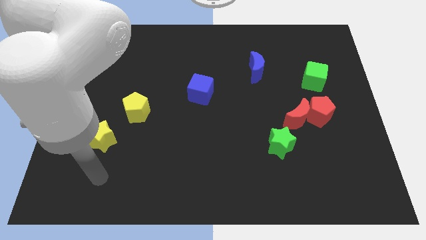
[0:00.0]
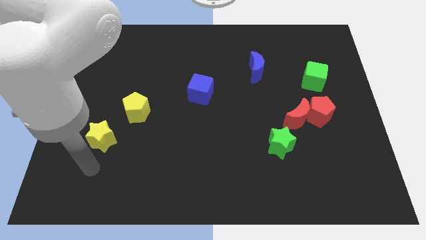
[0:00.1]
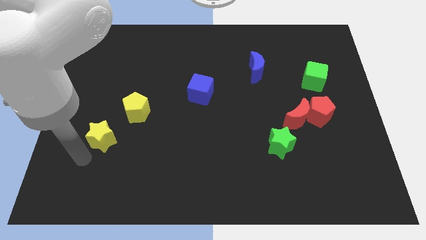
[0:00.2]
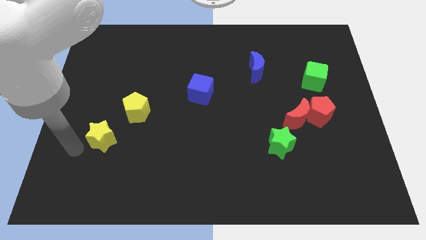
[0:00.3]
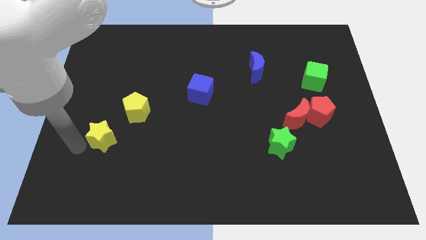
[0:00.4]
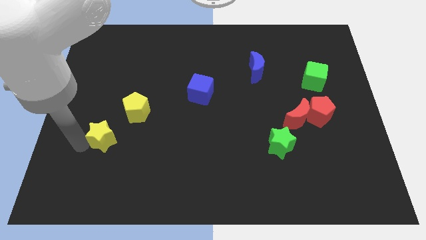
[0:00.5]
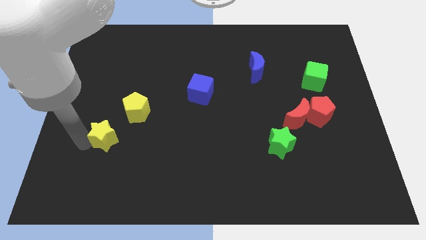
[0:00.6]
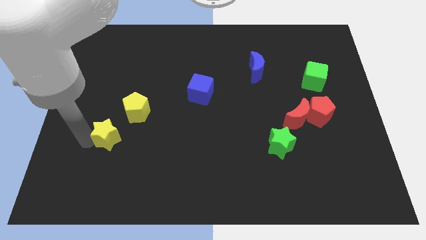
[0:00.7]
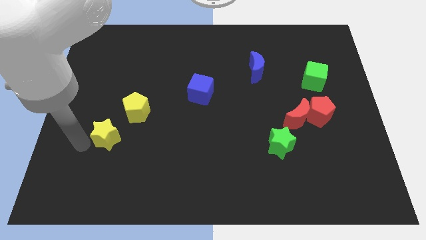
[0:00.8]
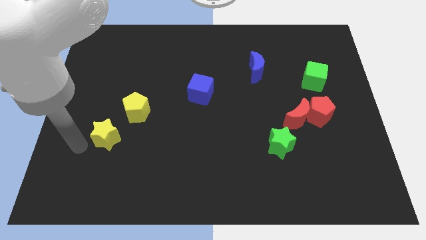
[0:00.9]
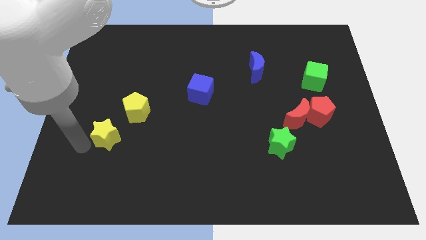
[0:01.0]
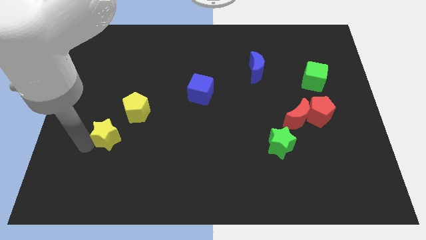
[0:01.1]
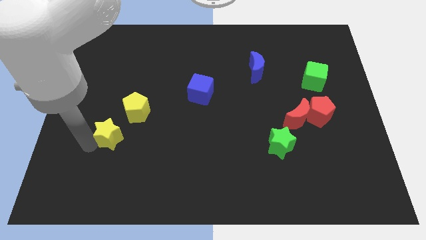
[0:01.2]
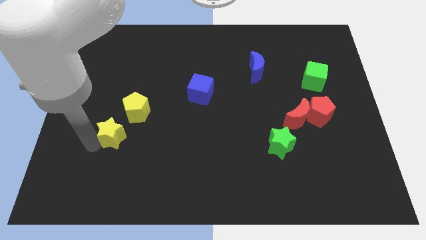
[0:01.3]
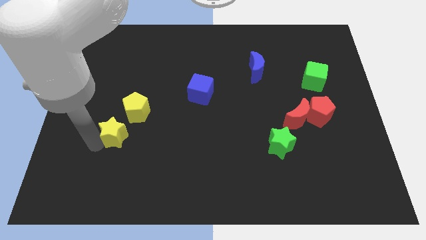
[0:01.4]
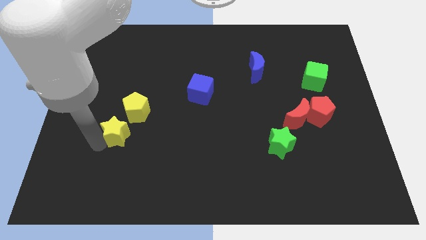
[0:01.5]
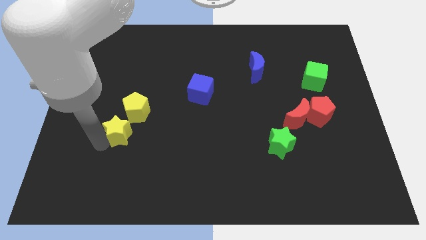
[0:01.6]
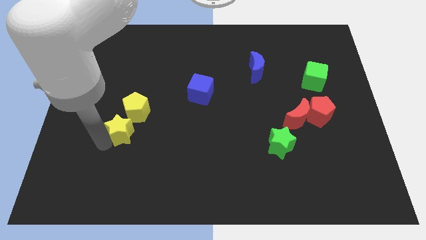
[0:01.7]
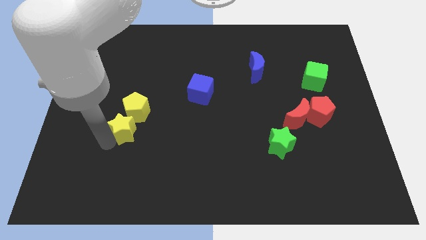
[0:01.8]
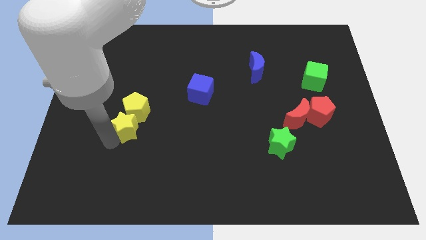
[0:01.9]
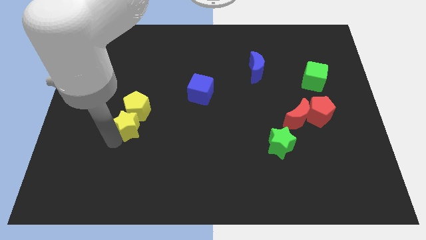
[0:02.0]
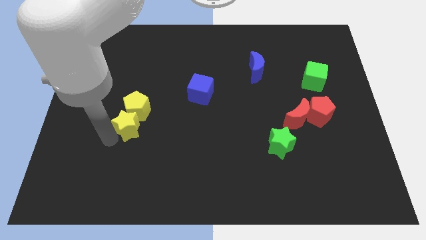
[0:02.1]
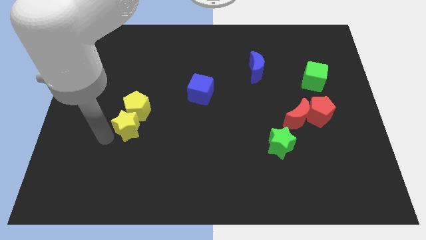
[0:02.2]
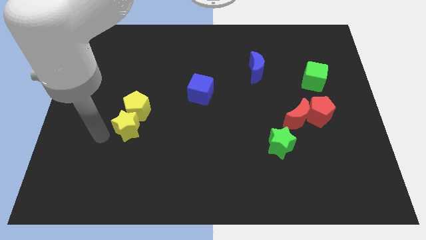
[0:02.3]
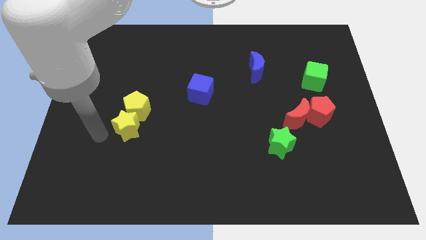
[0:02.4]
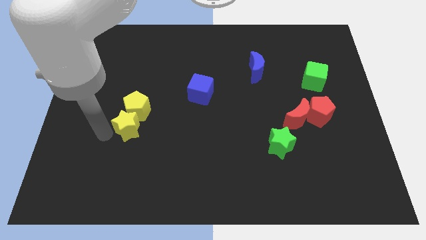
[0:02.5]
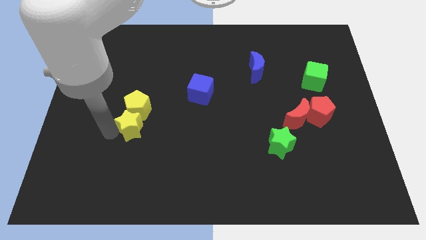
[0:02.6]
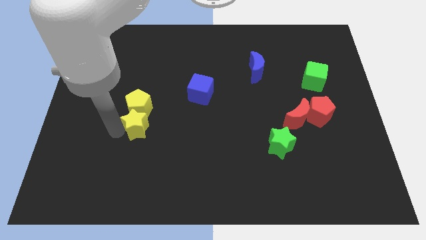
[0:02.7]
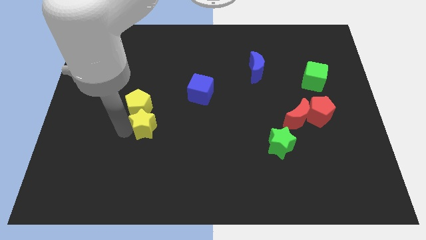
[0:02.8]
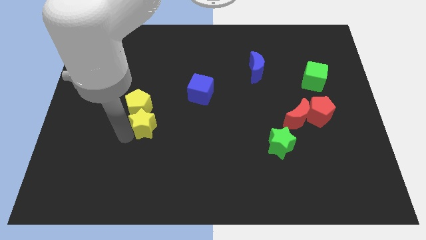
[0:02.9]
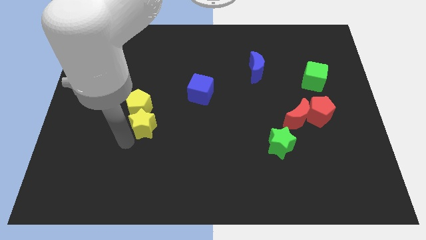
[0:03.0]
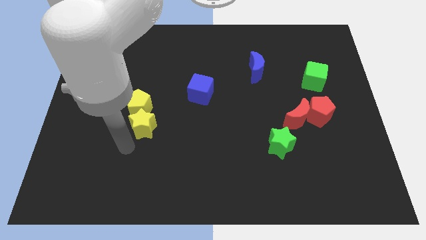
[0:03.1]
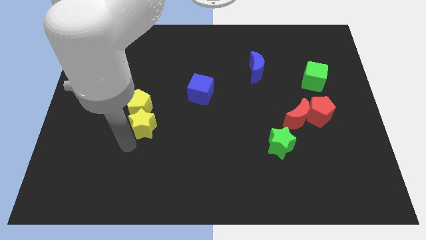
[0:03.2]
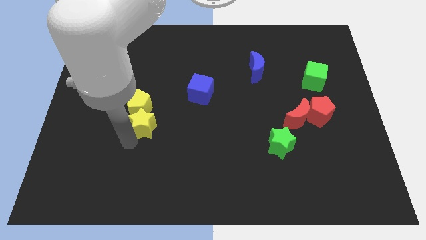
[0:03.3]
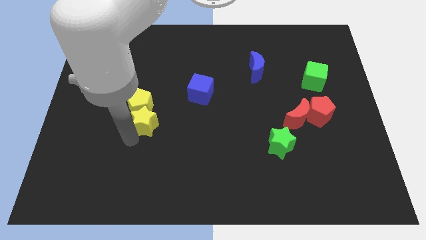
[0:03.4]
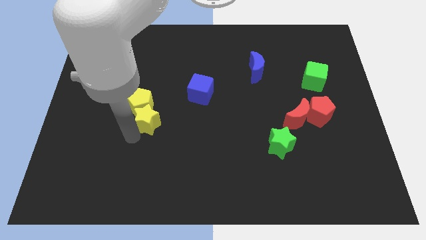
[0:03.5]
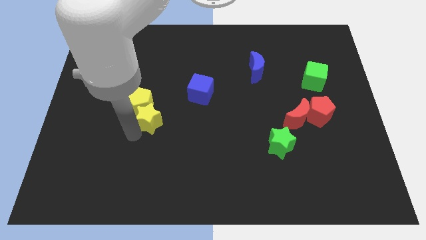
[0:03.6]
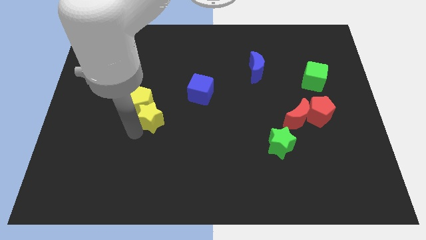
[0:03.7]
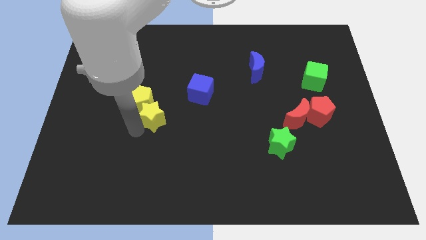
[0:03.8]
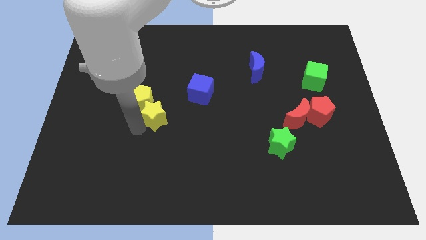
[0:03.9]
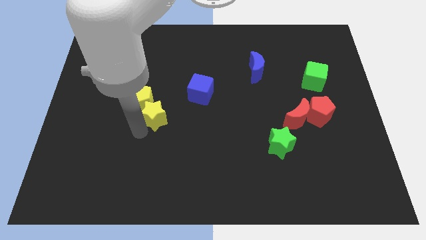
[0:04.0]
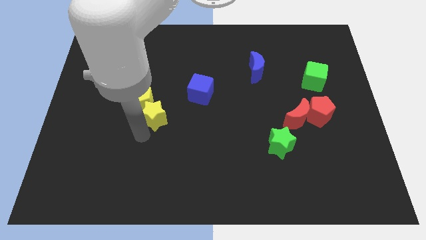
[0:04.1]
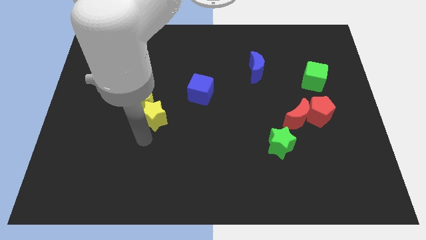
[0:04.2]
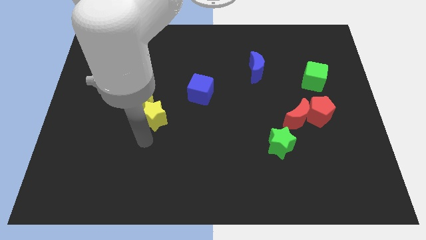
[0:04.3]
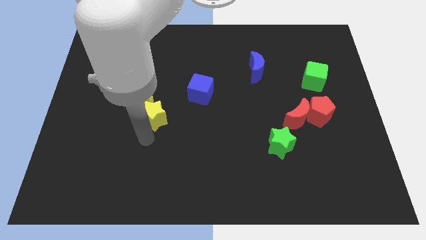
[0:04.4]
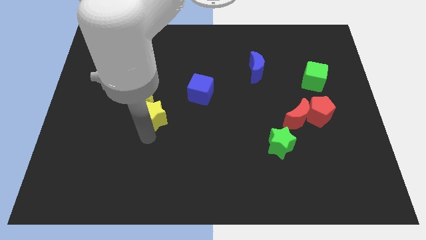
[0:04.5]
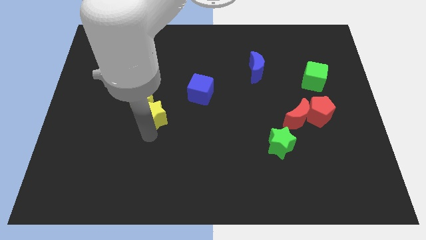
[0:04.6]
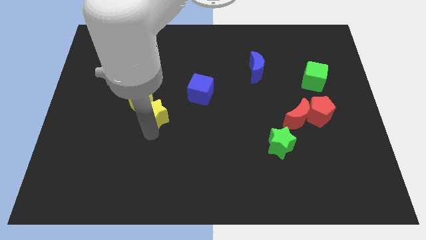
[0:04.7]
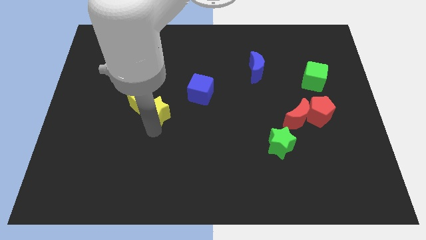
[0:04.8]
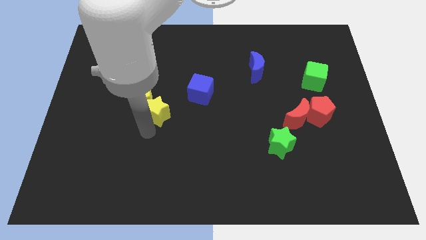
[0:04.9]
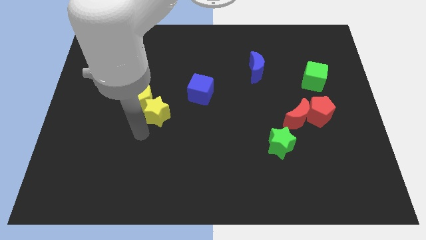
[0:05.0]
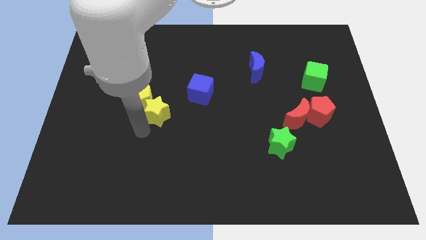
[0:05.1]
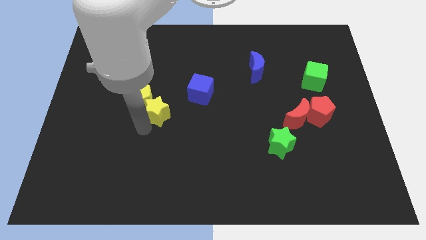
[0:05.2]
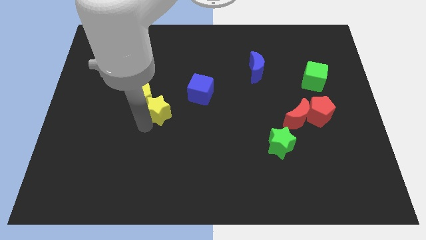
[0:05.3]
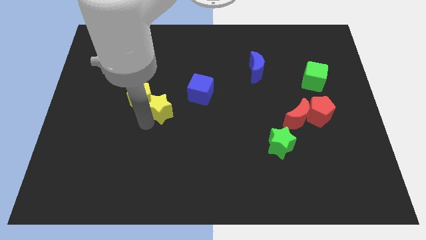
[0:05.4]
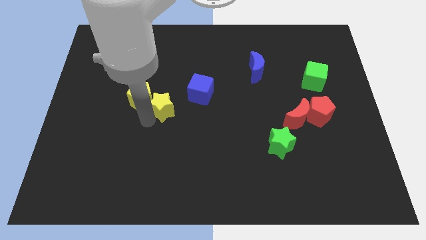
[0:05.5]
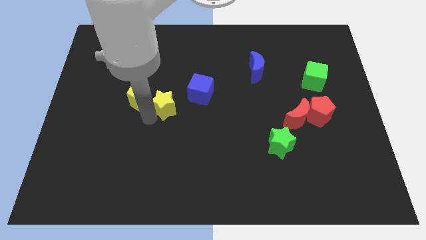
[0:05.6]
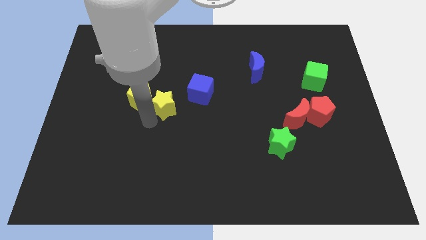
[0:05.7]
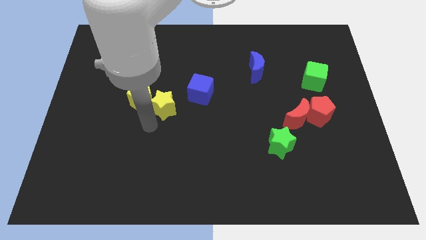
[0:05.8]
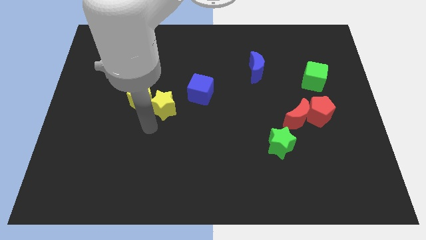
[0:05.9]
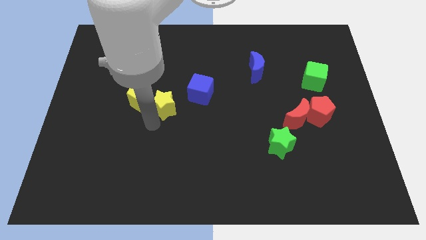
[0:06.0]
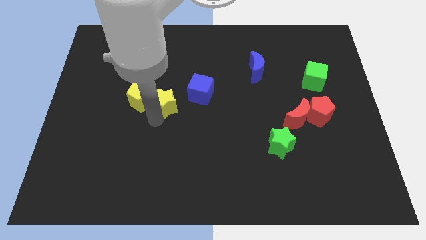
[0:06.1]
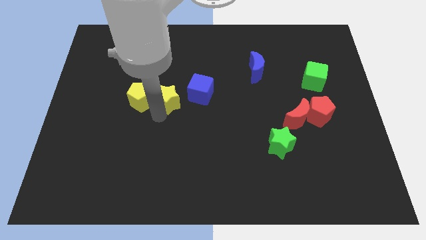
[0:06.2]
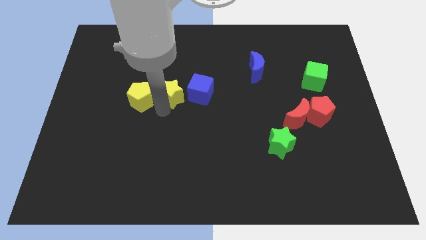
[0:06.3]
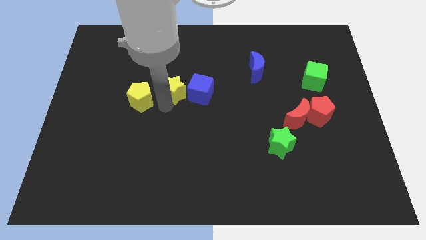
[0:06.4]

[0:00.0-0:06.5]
push the yellow star upwards and to the right

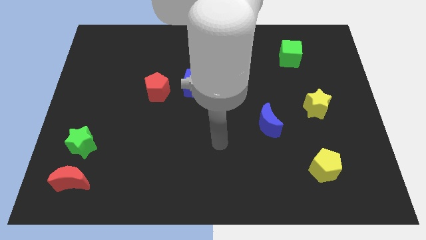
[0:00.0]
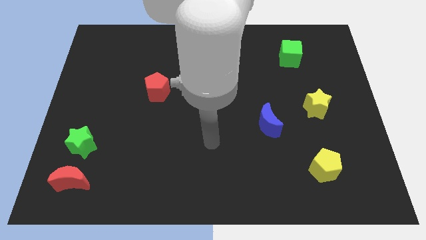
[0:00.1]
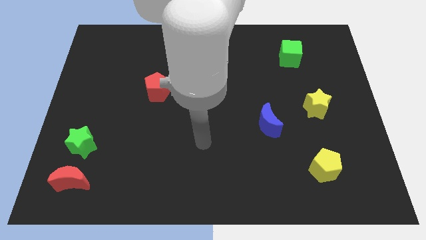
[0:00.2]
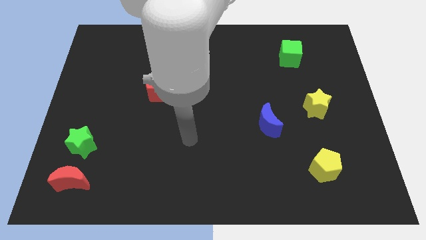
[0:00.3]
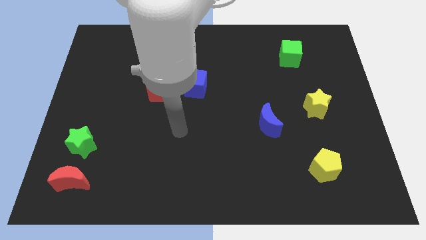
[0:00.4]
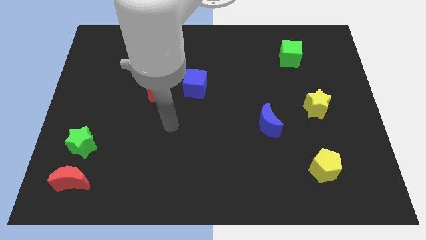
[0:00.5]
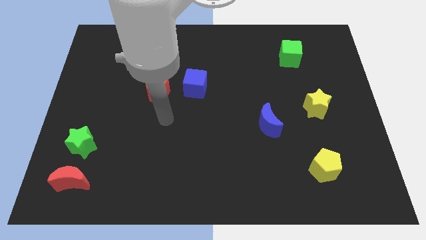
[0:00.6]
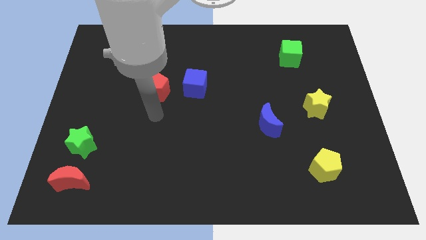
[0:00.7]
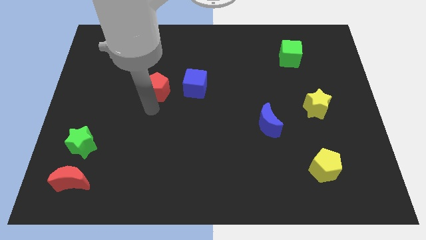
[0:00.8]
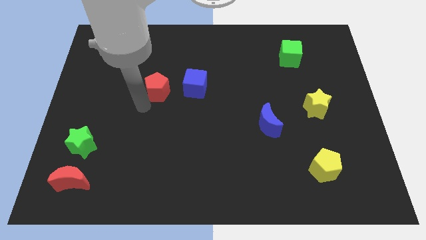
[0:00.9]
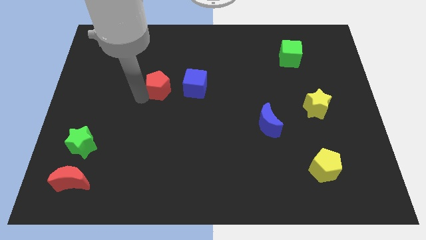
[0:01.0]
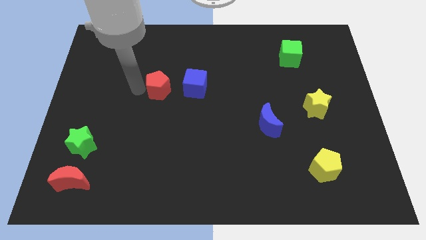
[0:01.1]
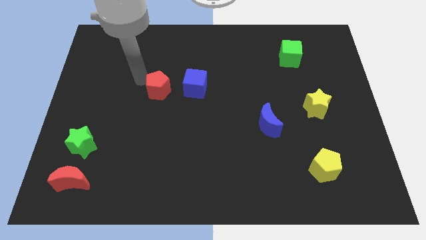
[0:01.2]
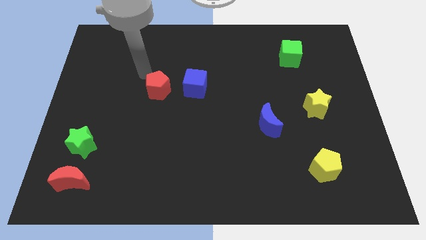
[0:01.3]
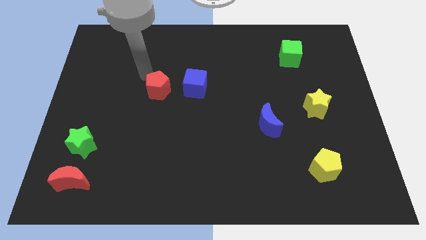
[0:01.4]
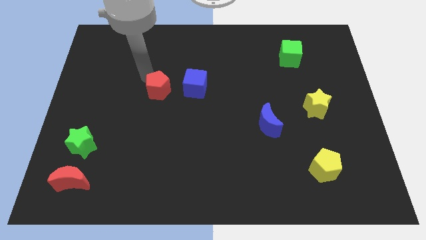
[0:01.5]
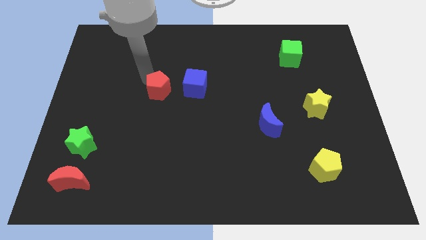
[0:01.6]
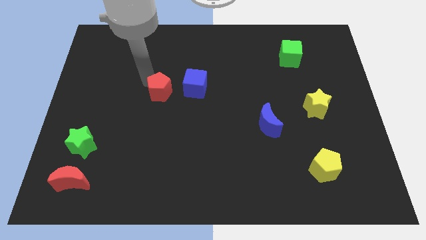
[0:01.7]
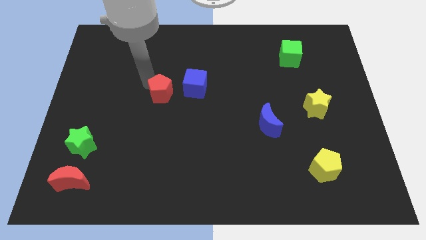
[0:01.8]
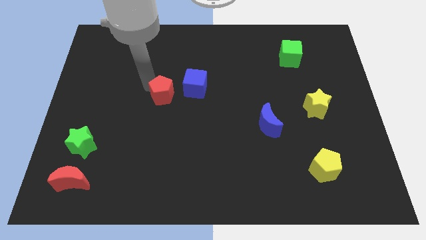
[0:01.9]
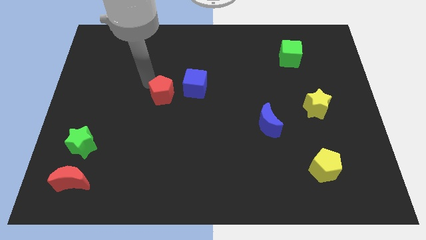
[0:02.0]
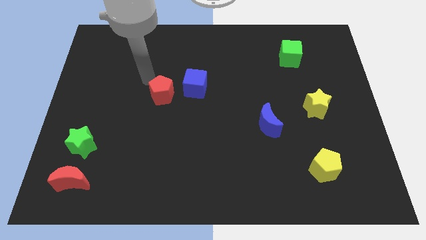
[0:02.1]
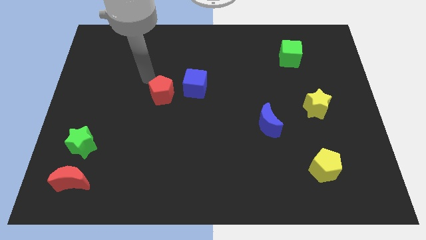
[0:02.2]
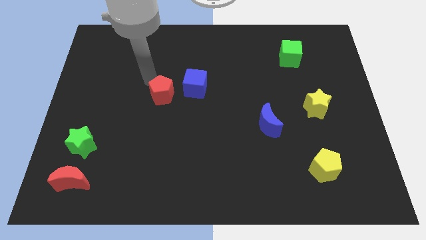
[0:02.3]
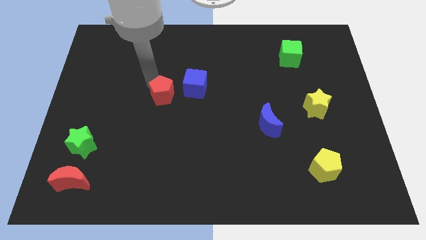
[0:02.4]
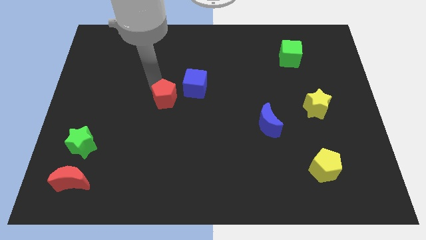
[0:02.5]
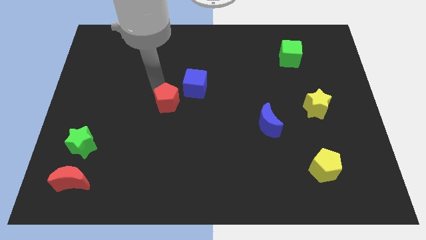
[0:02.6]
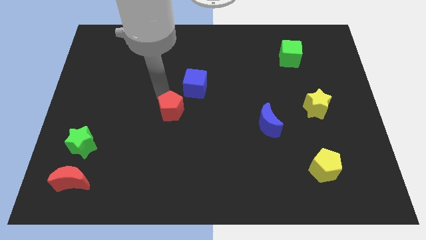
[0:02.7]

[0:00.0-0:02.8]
slightly move the red pentagon diagonally down and right
